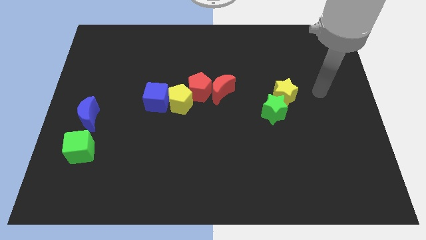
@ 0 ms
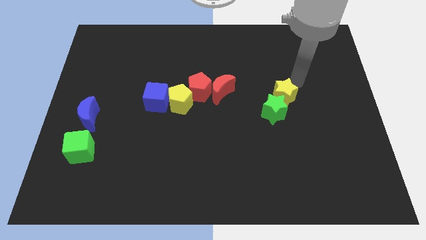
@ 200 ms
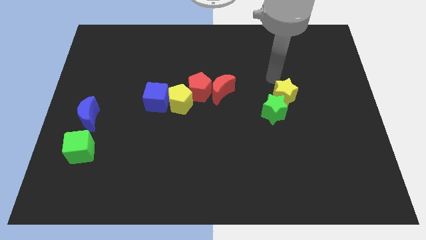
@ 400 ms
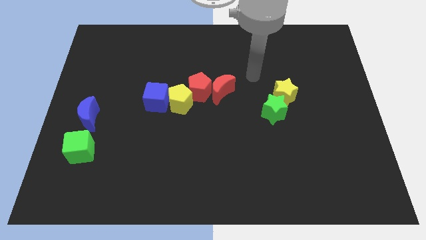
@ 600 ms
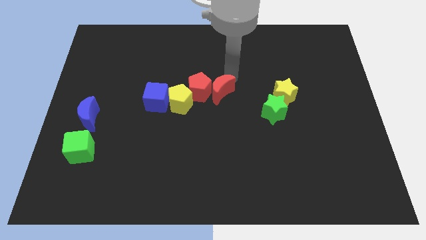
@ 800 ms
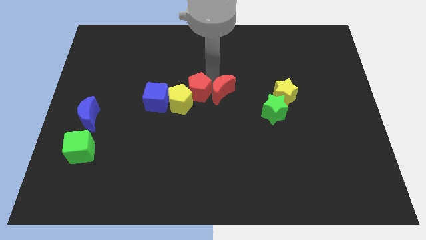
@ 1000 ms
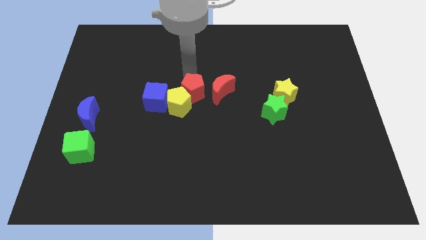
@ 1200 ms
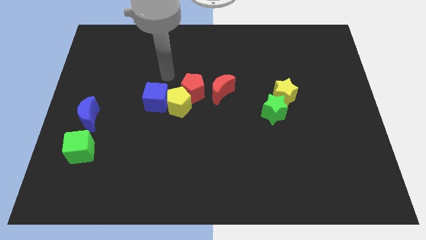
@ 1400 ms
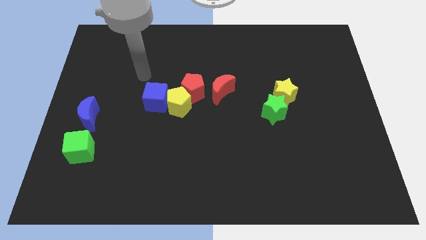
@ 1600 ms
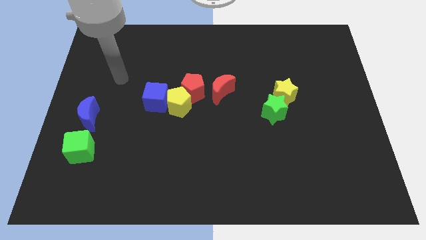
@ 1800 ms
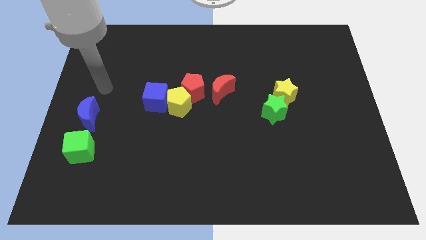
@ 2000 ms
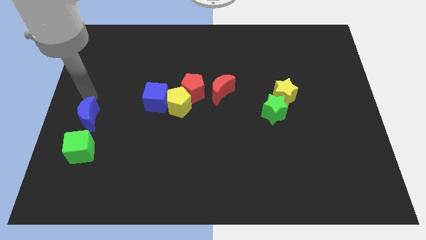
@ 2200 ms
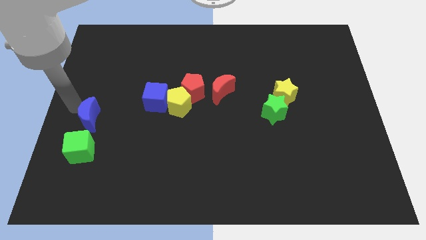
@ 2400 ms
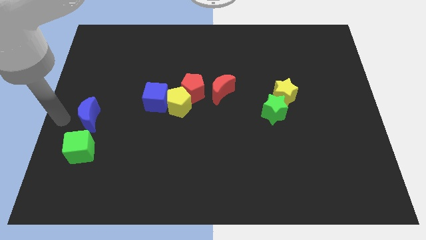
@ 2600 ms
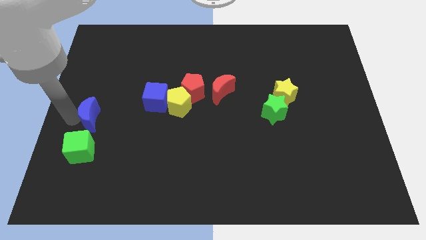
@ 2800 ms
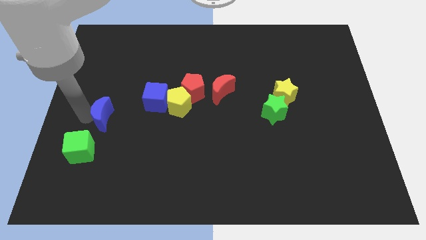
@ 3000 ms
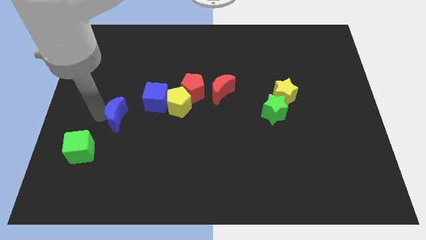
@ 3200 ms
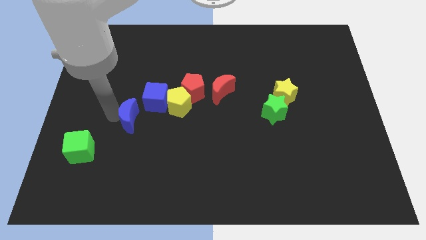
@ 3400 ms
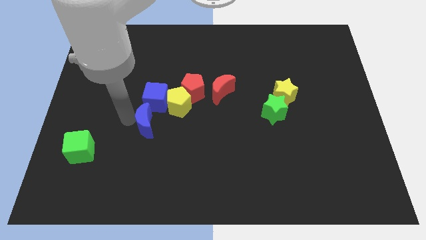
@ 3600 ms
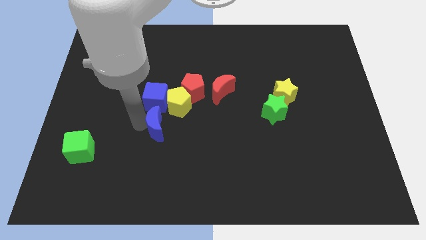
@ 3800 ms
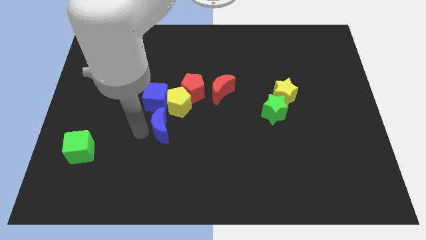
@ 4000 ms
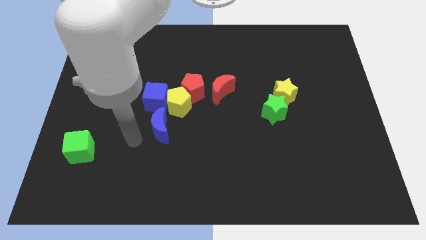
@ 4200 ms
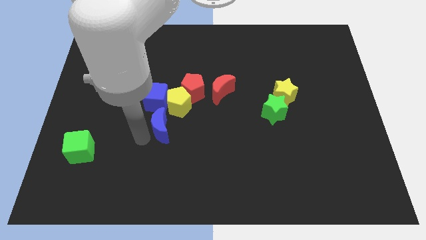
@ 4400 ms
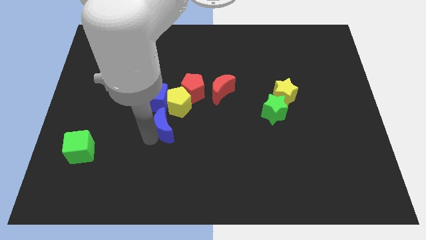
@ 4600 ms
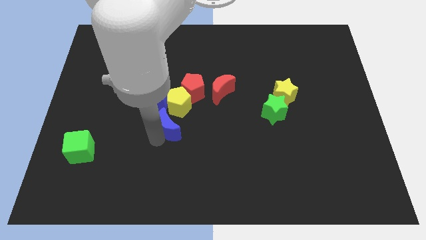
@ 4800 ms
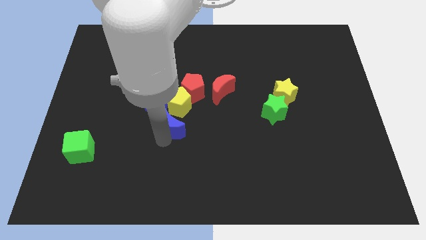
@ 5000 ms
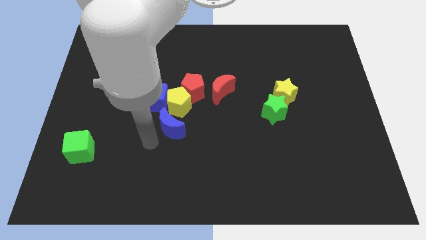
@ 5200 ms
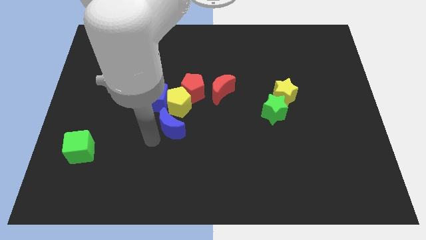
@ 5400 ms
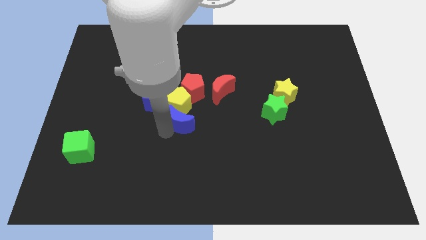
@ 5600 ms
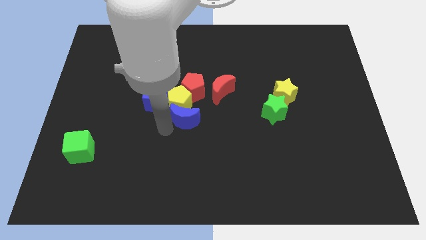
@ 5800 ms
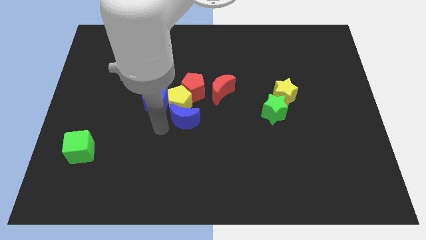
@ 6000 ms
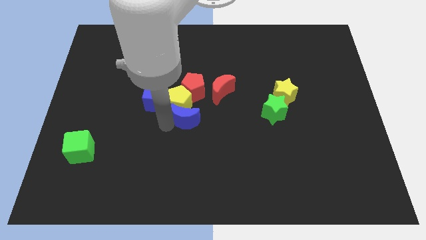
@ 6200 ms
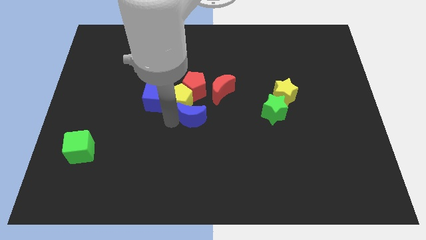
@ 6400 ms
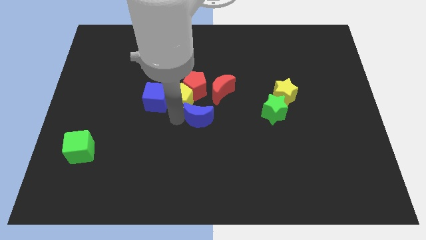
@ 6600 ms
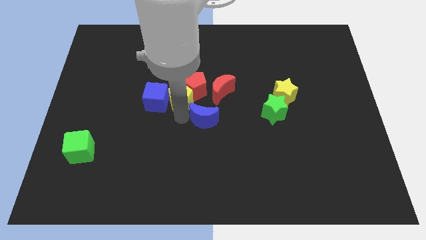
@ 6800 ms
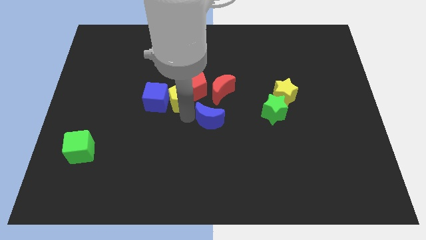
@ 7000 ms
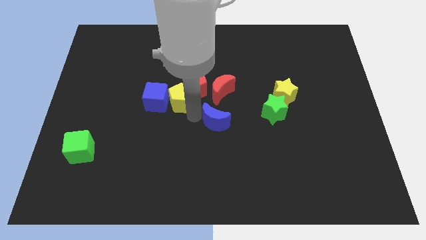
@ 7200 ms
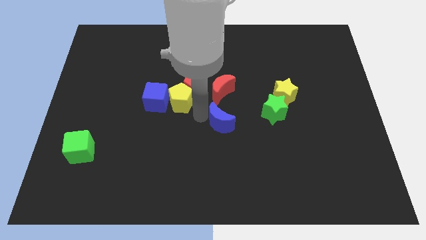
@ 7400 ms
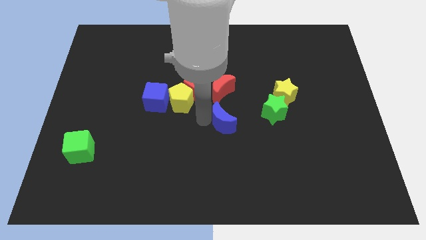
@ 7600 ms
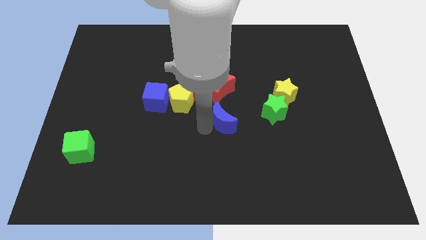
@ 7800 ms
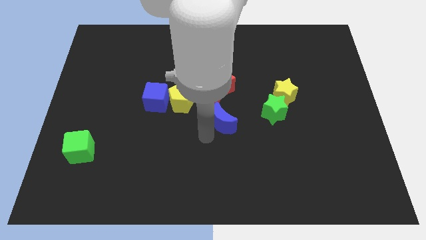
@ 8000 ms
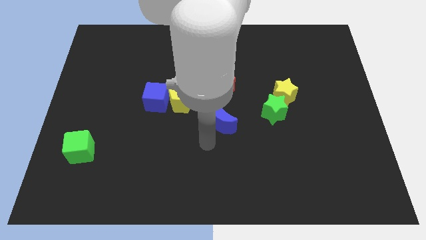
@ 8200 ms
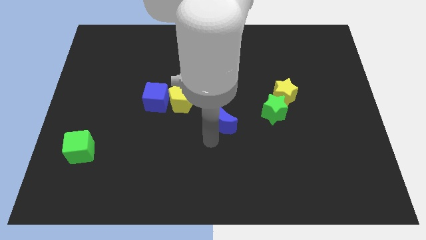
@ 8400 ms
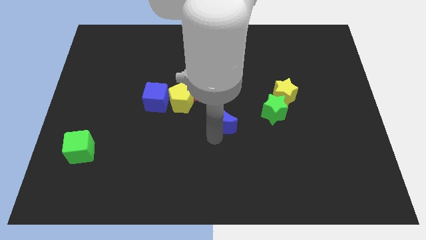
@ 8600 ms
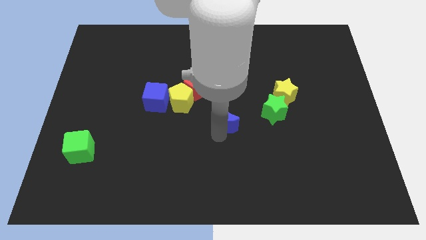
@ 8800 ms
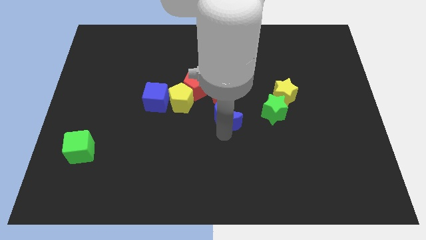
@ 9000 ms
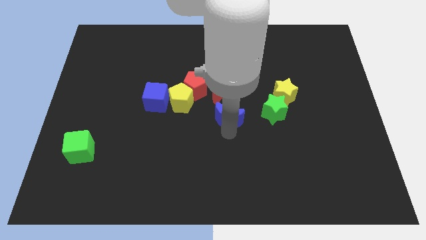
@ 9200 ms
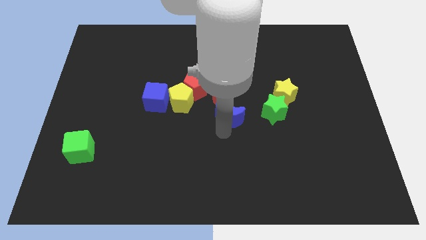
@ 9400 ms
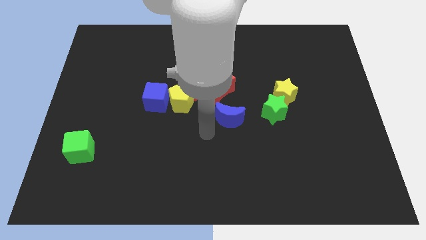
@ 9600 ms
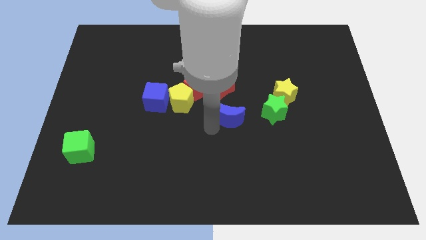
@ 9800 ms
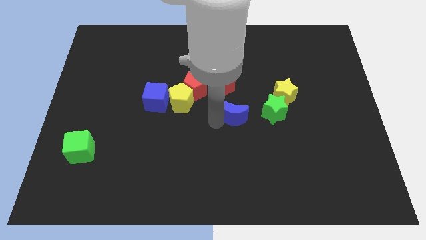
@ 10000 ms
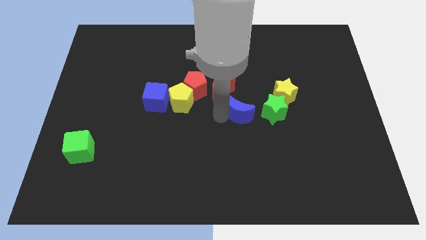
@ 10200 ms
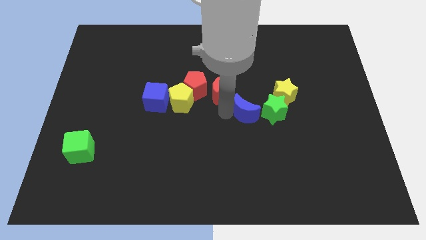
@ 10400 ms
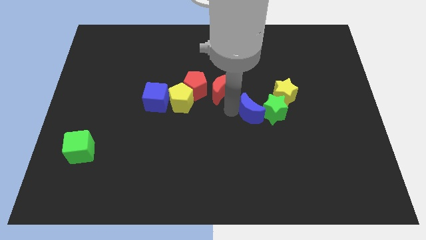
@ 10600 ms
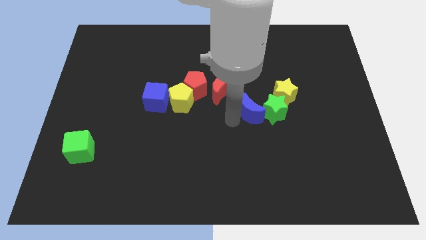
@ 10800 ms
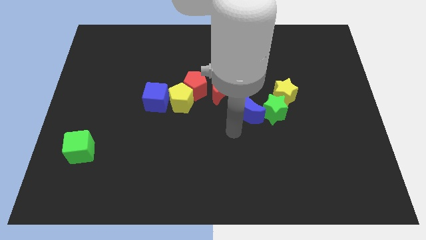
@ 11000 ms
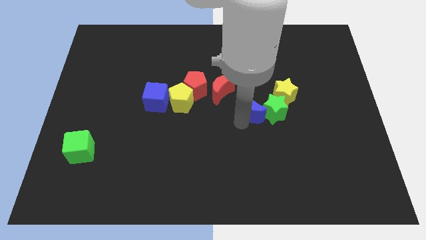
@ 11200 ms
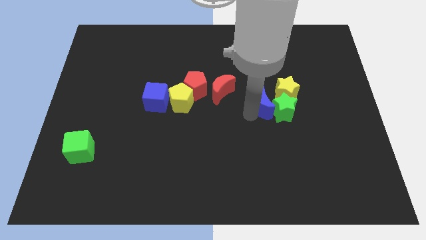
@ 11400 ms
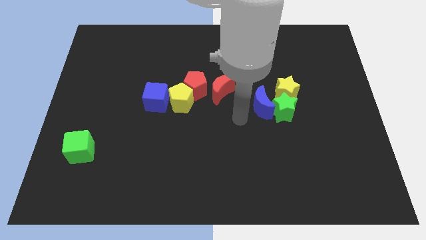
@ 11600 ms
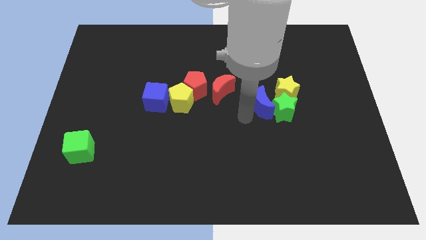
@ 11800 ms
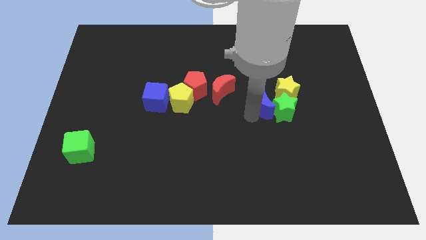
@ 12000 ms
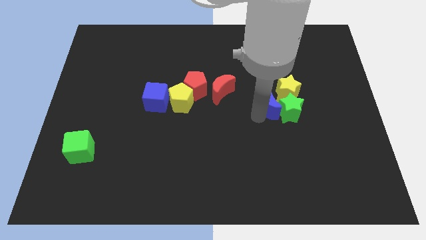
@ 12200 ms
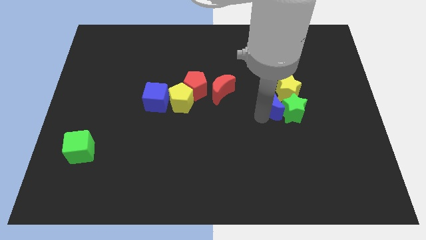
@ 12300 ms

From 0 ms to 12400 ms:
put the blue moon close to the yellow star

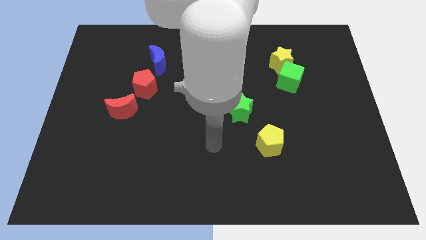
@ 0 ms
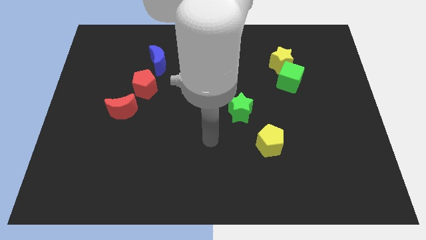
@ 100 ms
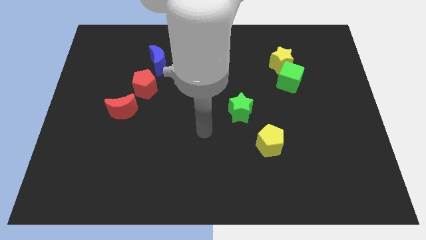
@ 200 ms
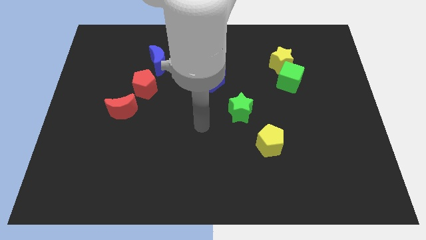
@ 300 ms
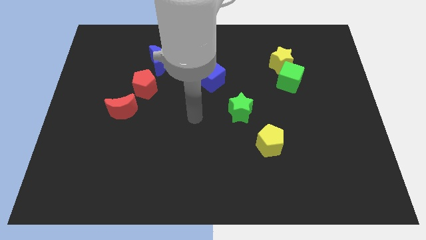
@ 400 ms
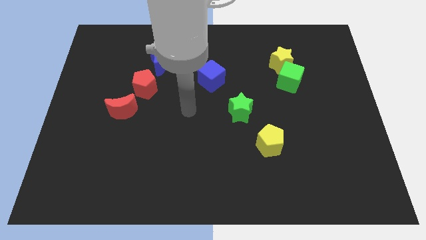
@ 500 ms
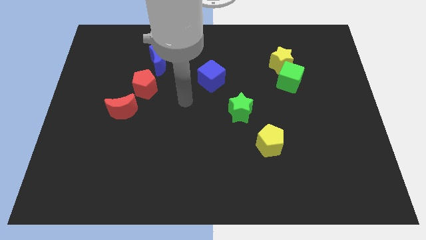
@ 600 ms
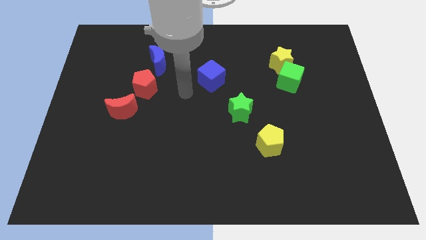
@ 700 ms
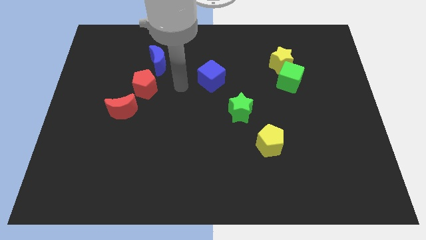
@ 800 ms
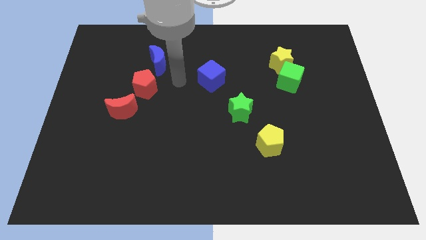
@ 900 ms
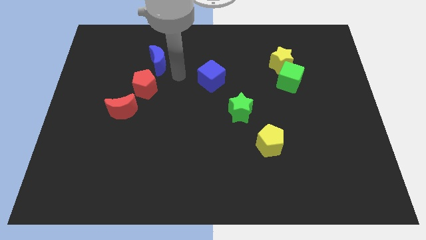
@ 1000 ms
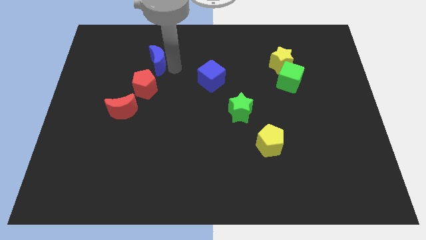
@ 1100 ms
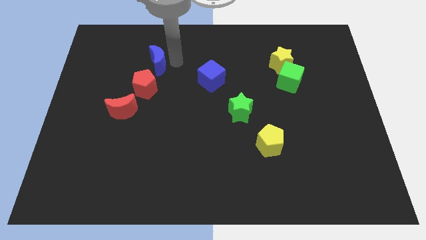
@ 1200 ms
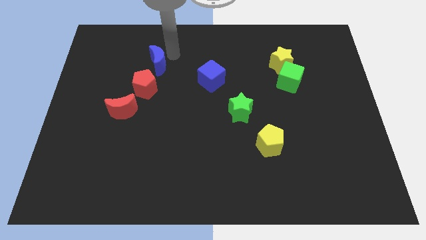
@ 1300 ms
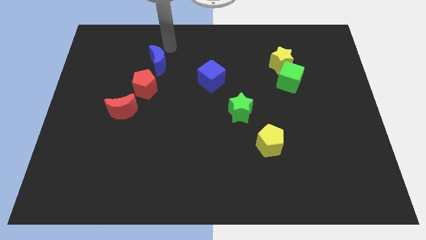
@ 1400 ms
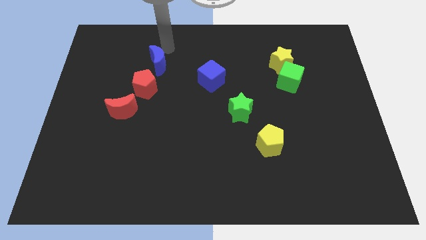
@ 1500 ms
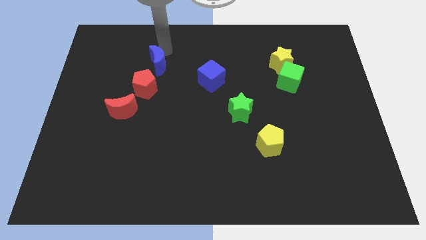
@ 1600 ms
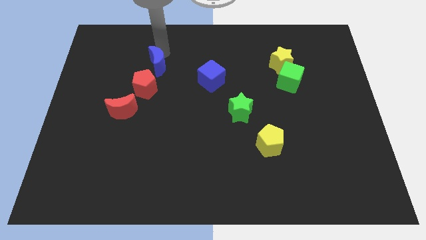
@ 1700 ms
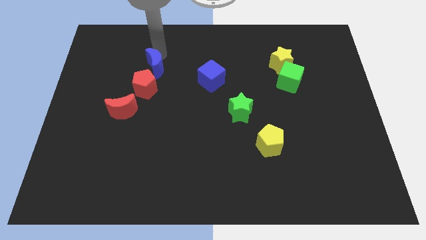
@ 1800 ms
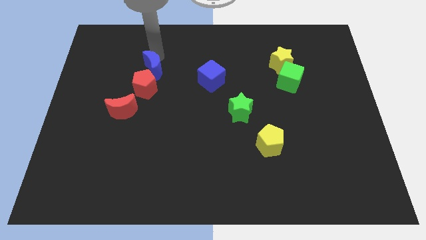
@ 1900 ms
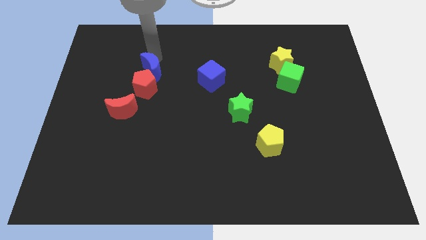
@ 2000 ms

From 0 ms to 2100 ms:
move the blue moon next to the red pentagon
